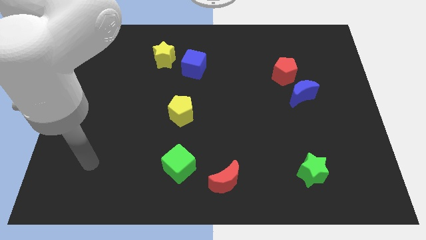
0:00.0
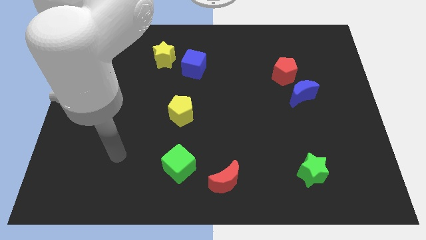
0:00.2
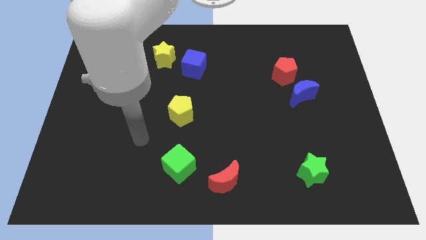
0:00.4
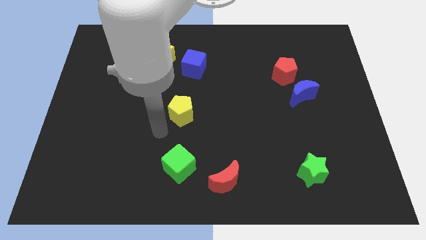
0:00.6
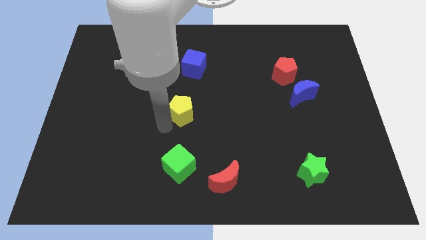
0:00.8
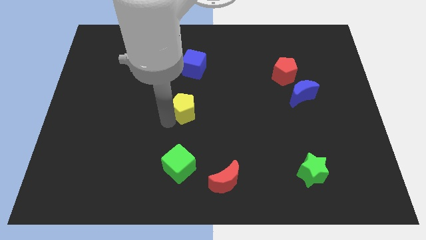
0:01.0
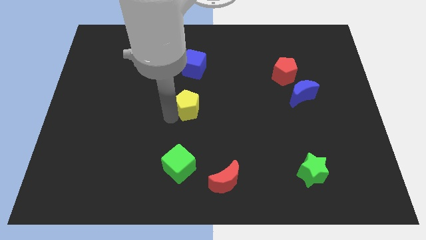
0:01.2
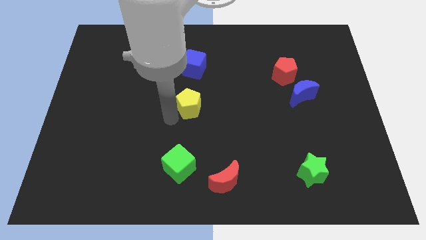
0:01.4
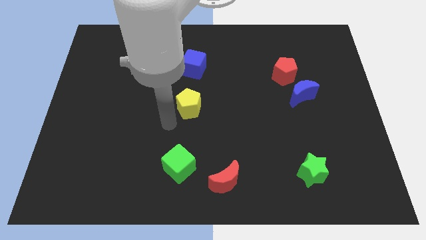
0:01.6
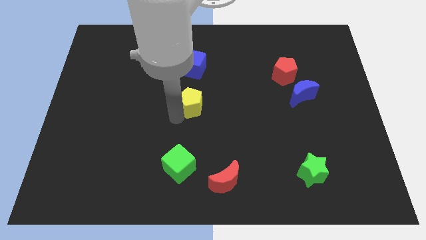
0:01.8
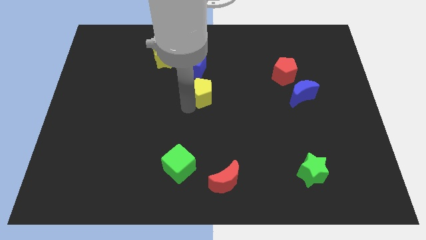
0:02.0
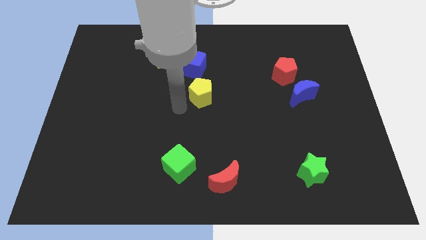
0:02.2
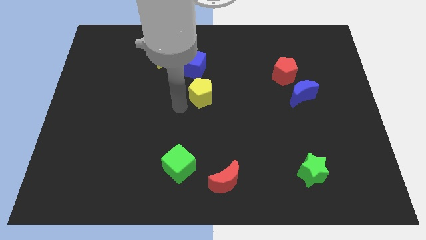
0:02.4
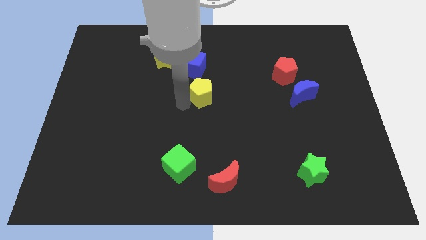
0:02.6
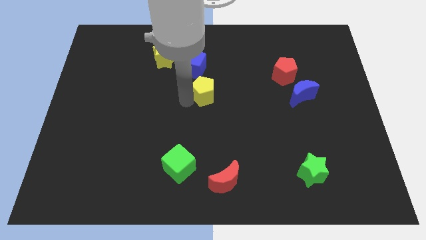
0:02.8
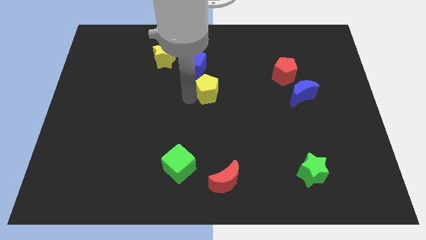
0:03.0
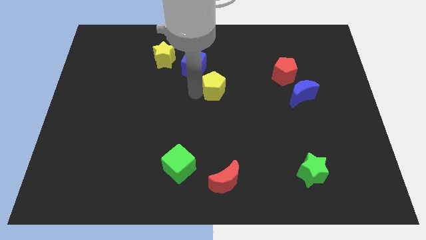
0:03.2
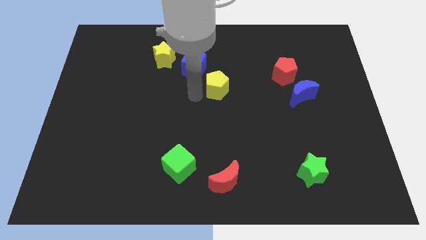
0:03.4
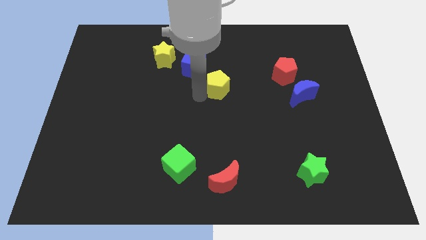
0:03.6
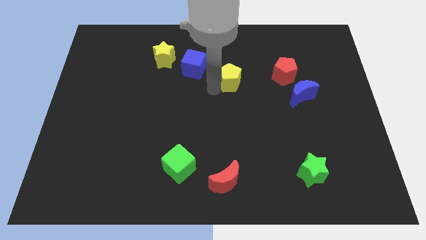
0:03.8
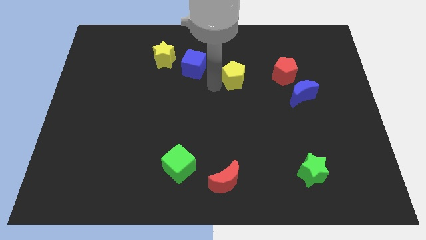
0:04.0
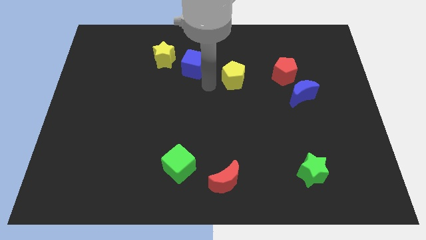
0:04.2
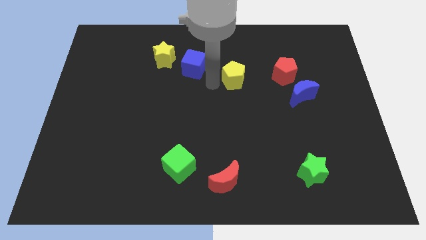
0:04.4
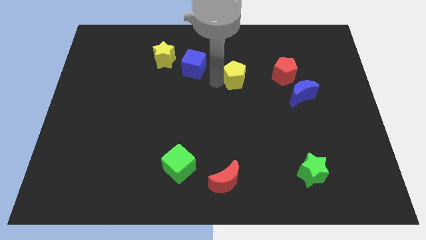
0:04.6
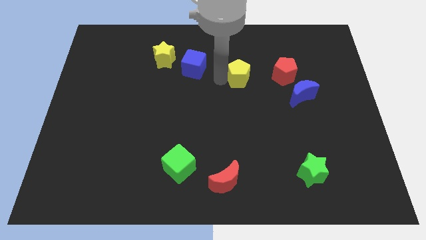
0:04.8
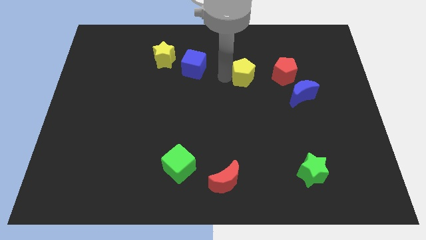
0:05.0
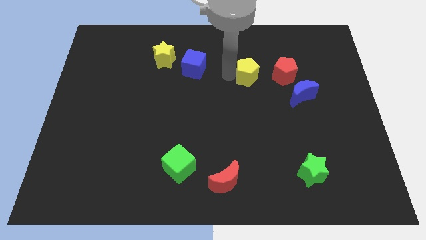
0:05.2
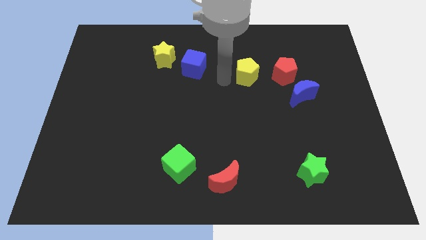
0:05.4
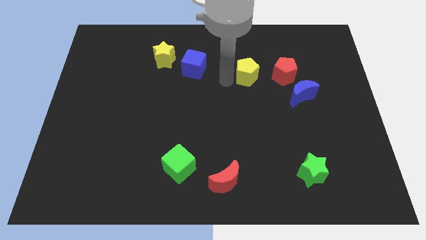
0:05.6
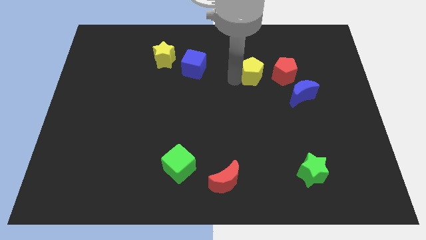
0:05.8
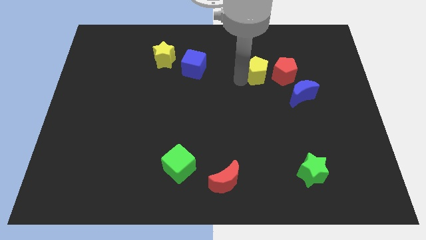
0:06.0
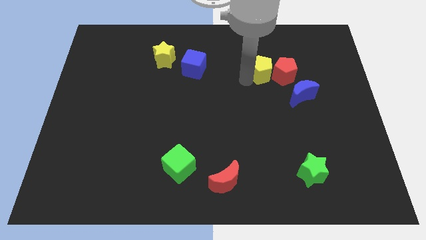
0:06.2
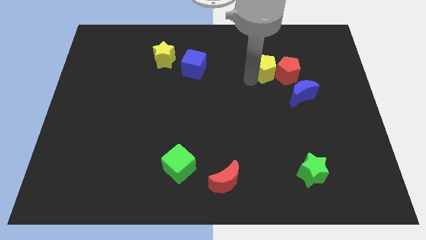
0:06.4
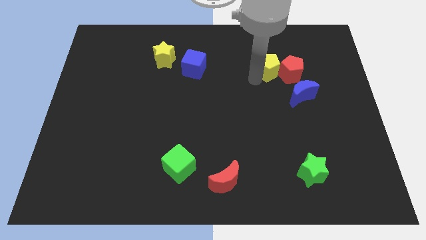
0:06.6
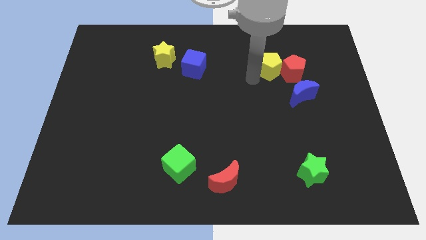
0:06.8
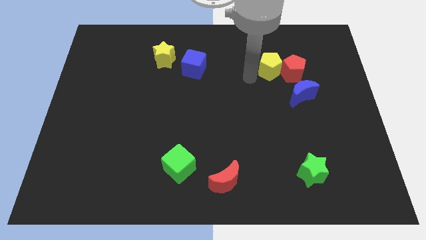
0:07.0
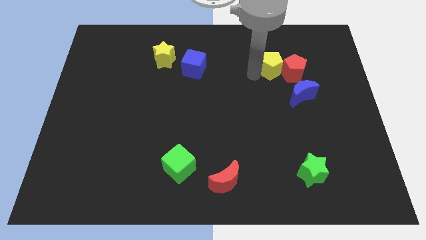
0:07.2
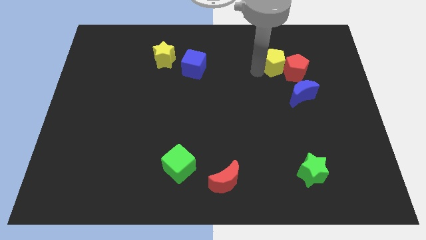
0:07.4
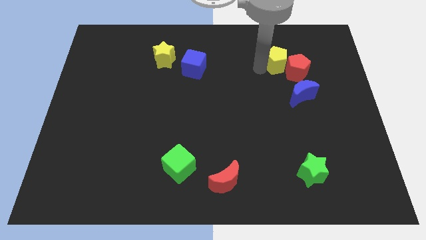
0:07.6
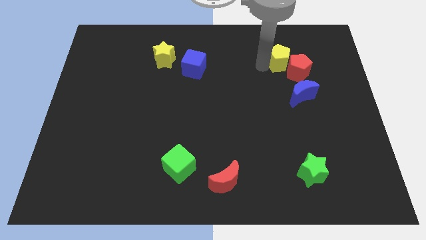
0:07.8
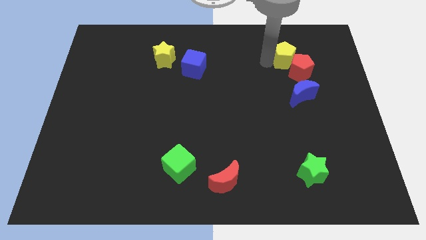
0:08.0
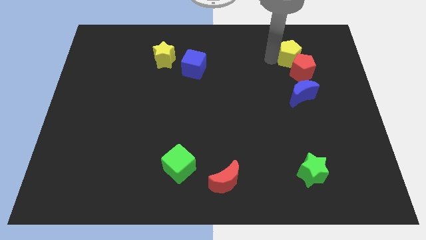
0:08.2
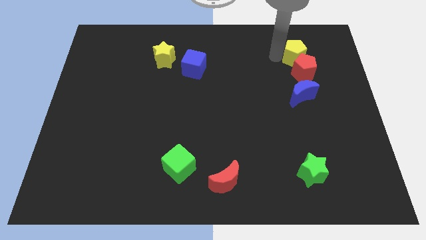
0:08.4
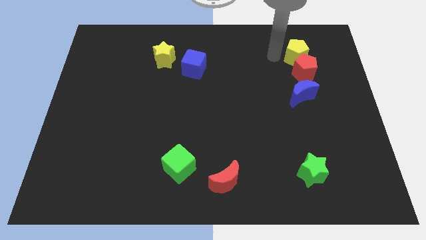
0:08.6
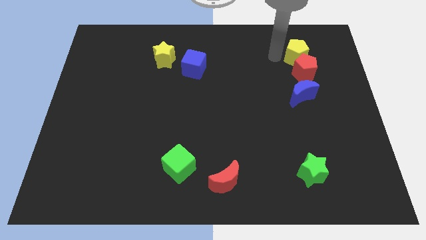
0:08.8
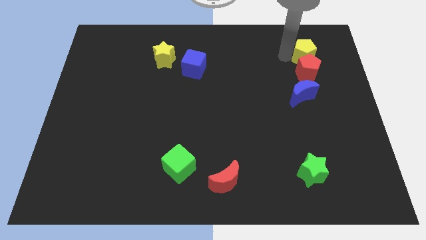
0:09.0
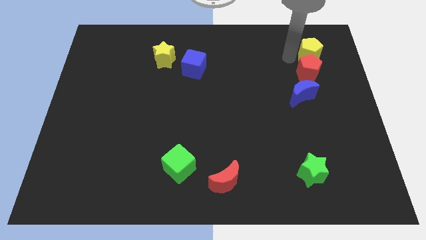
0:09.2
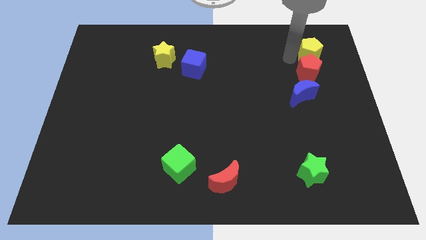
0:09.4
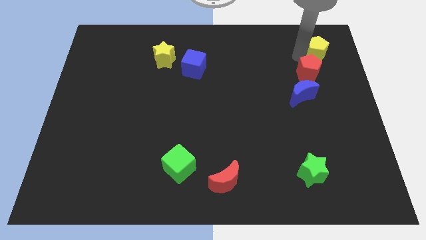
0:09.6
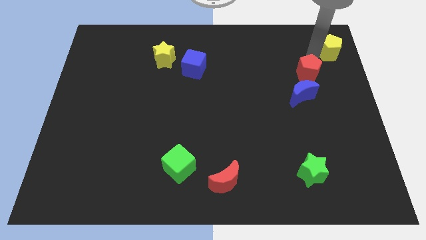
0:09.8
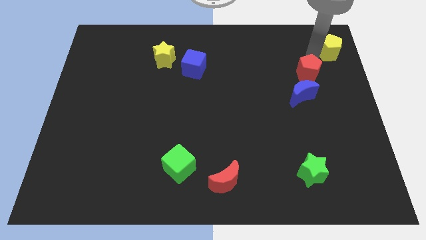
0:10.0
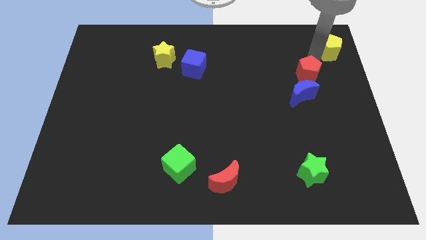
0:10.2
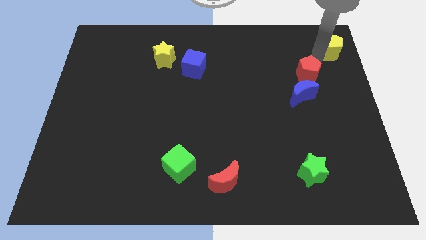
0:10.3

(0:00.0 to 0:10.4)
put the yellow pentagon to the top right of the board

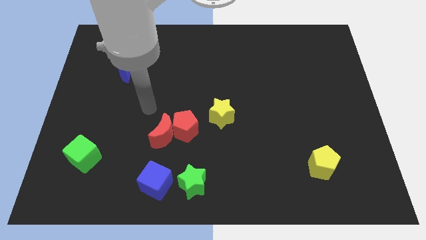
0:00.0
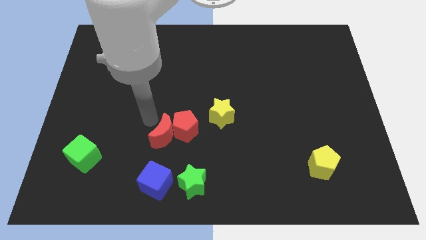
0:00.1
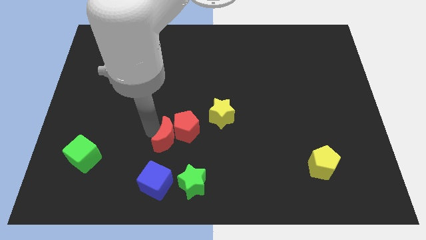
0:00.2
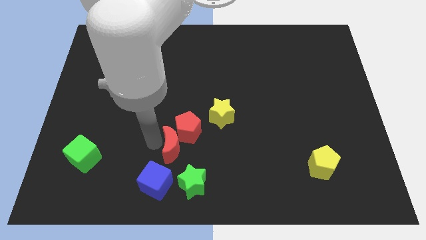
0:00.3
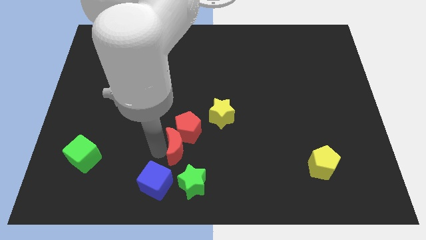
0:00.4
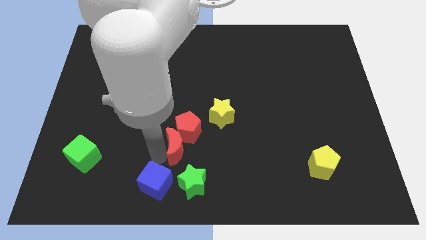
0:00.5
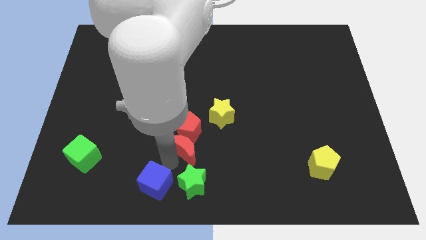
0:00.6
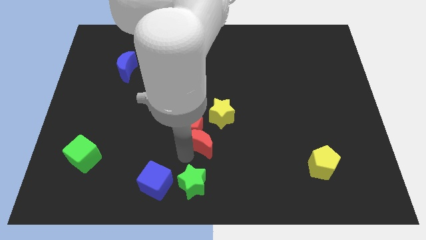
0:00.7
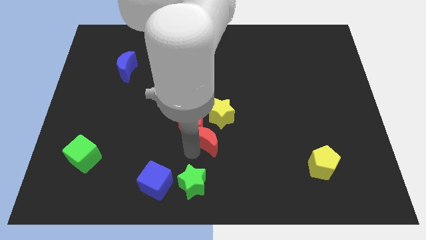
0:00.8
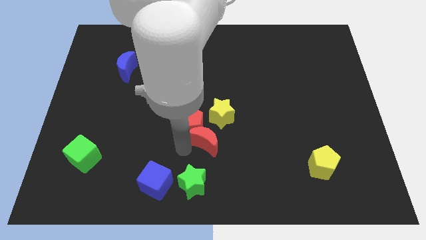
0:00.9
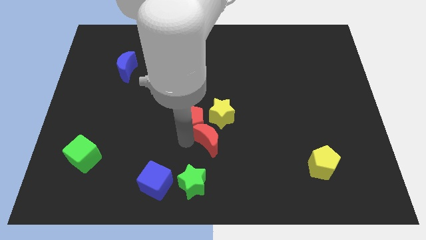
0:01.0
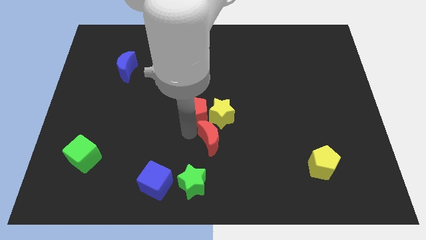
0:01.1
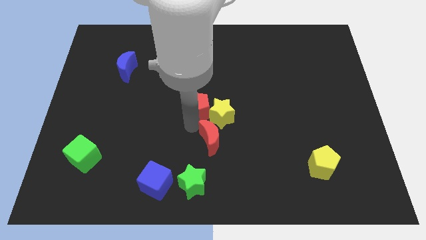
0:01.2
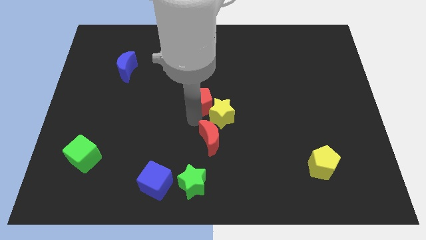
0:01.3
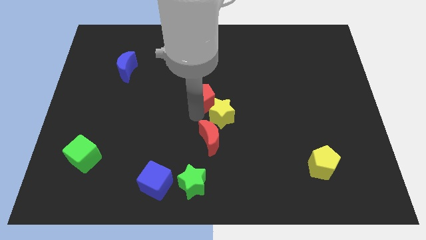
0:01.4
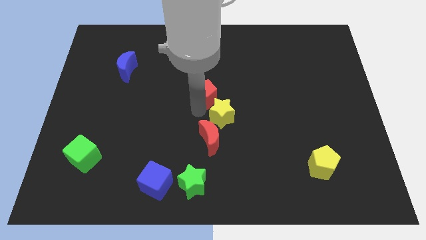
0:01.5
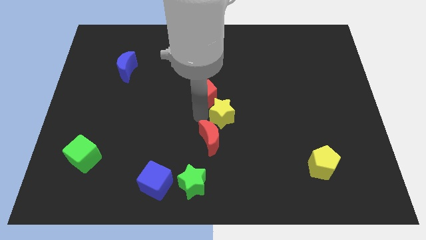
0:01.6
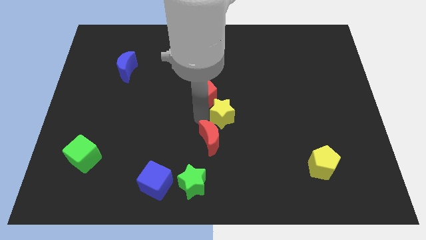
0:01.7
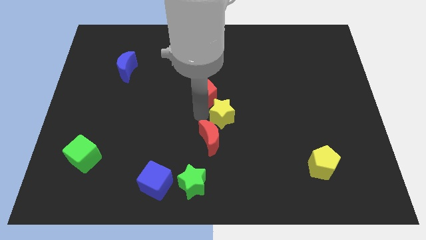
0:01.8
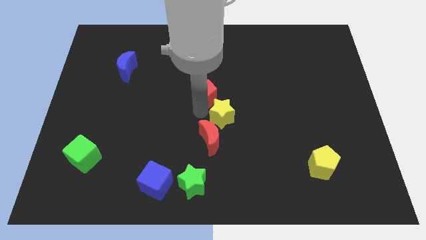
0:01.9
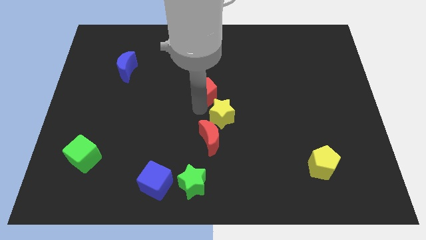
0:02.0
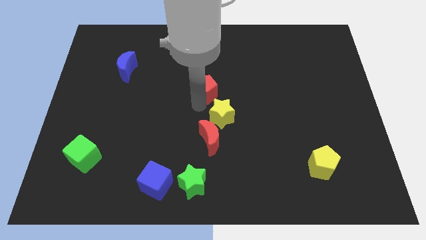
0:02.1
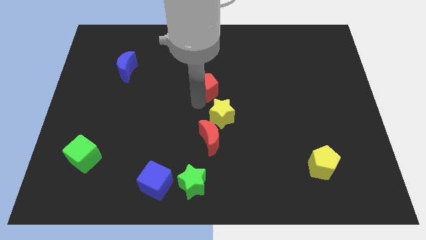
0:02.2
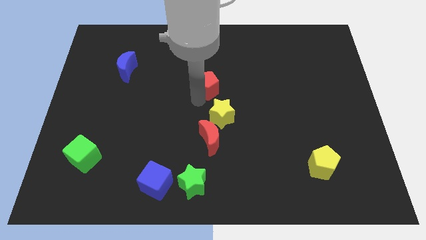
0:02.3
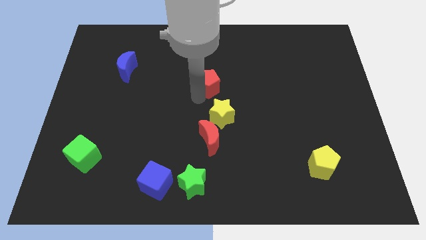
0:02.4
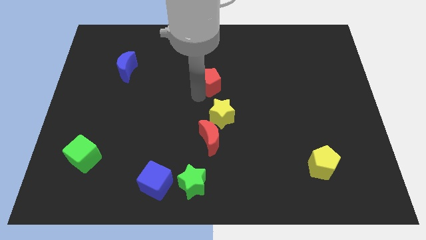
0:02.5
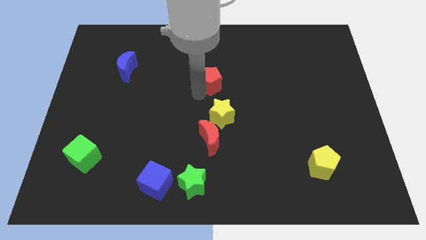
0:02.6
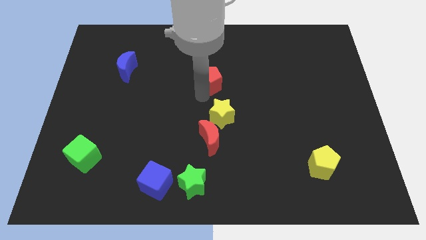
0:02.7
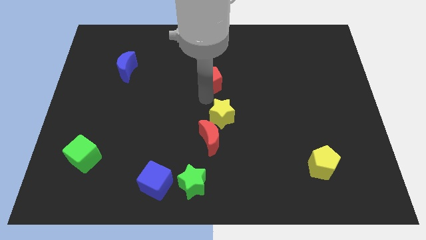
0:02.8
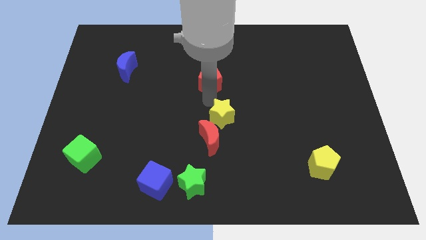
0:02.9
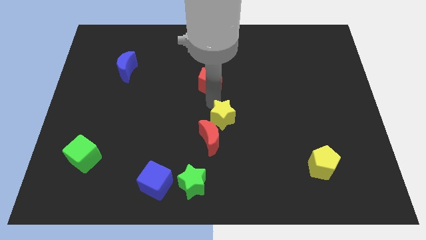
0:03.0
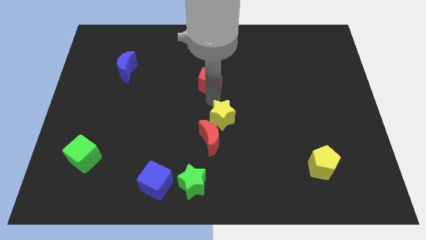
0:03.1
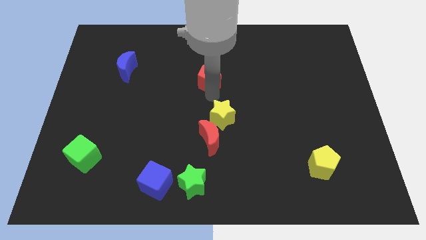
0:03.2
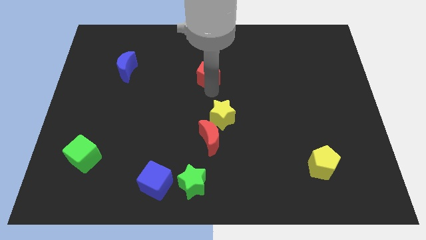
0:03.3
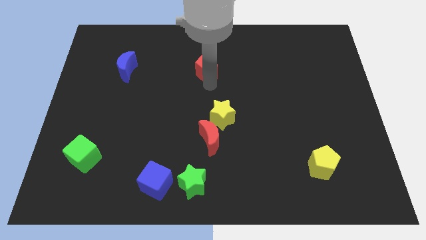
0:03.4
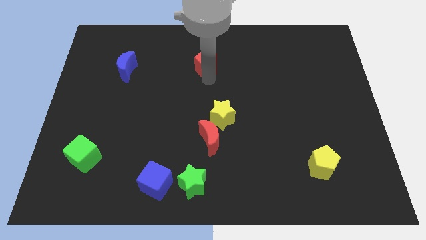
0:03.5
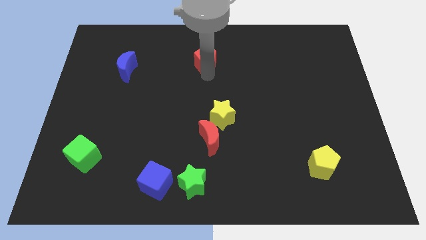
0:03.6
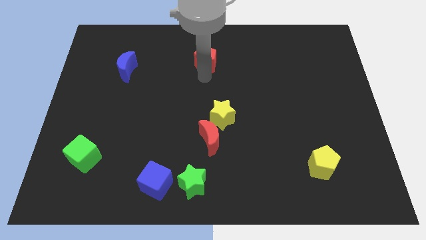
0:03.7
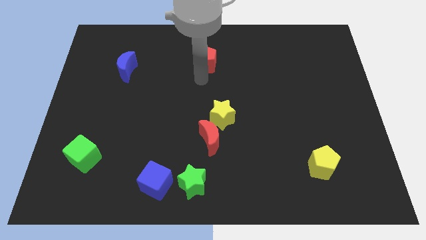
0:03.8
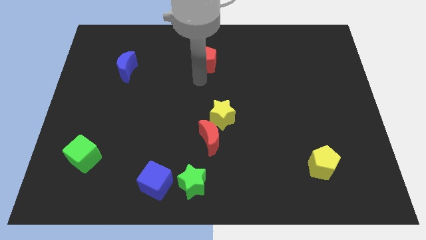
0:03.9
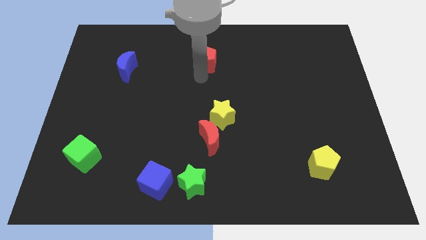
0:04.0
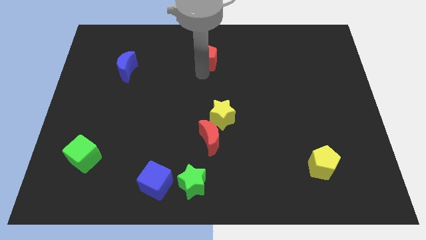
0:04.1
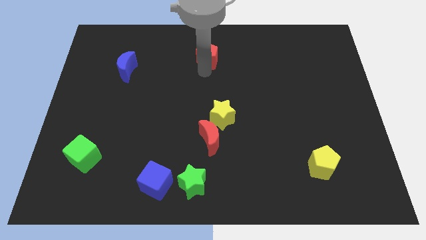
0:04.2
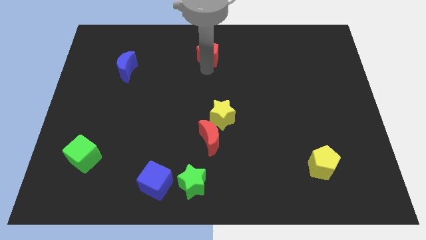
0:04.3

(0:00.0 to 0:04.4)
put the red pentagon to the top
